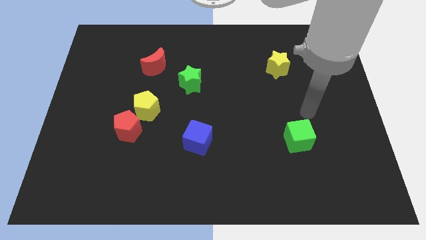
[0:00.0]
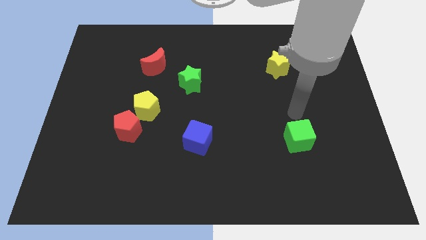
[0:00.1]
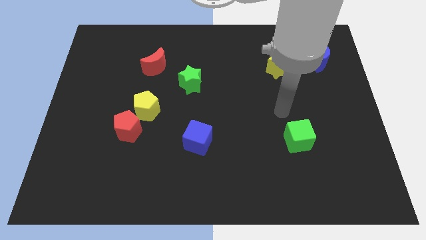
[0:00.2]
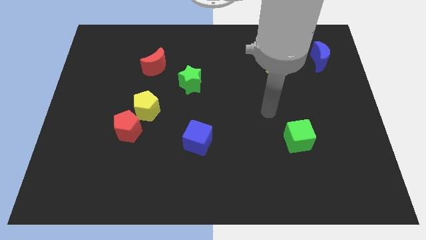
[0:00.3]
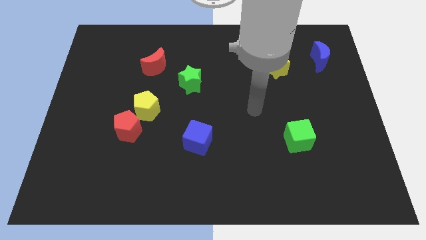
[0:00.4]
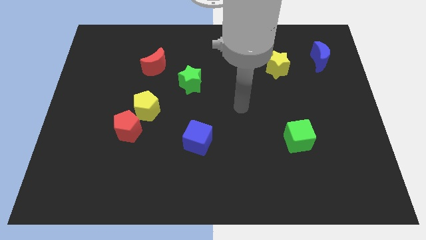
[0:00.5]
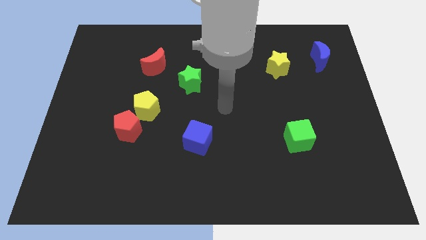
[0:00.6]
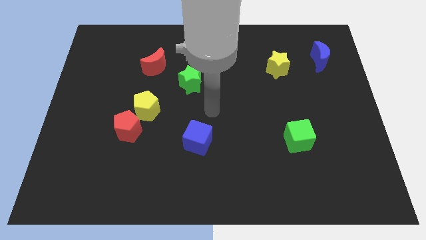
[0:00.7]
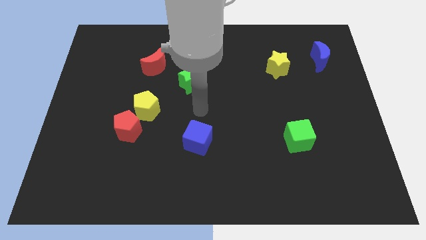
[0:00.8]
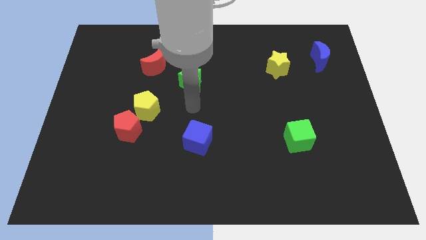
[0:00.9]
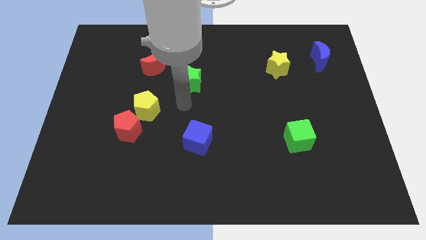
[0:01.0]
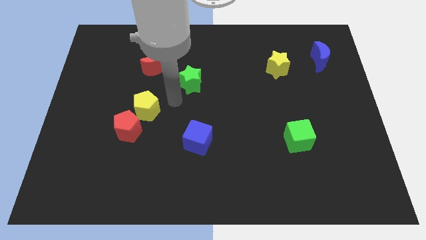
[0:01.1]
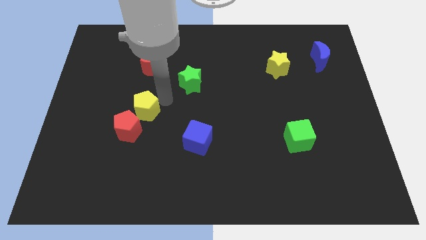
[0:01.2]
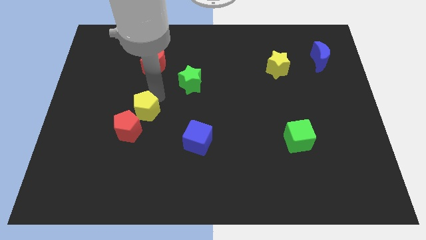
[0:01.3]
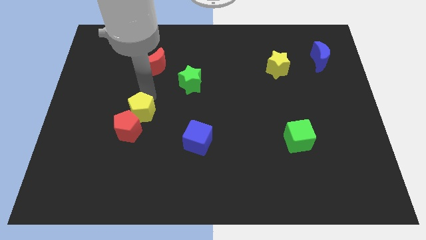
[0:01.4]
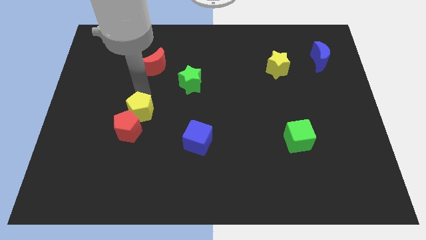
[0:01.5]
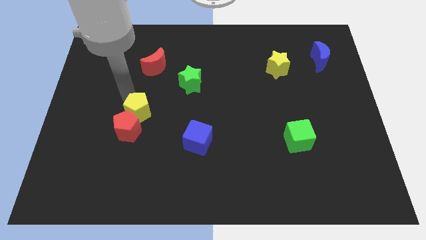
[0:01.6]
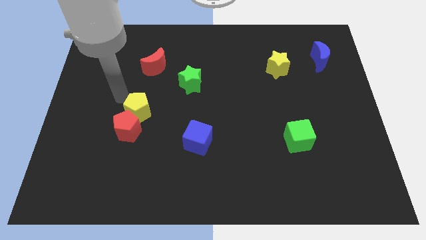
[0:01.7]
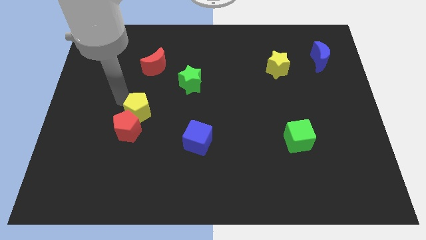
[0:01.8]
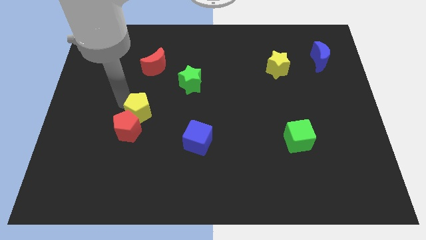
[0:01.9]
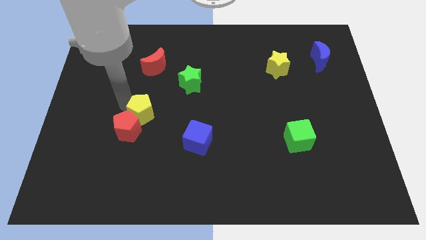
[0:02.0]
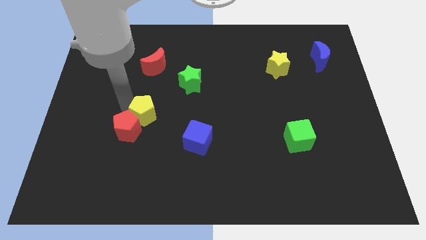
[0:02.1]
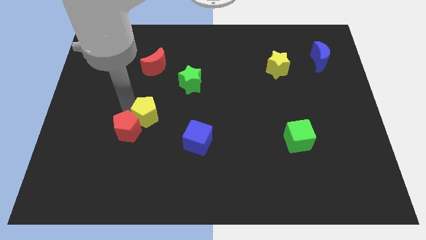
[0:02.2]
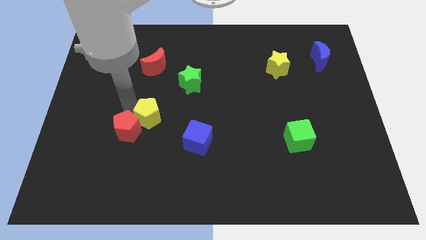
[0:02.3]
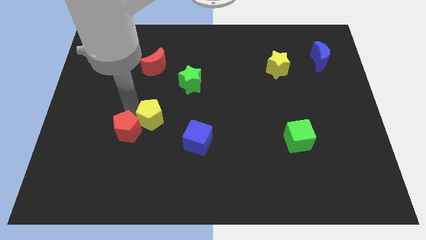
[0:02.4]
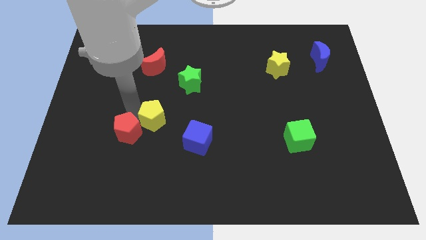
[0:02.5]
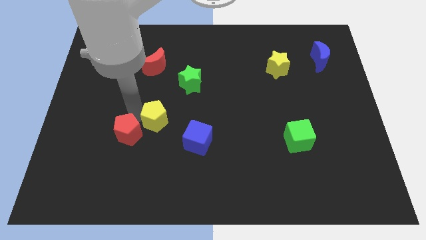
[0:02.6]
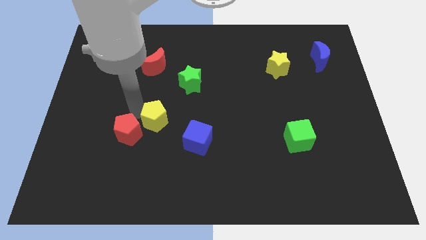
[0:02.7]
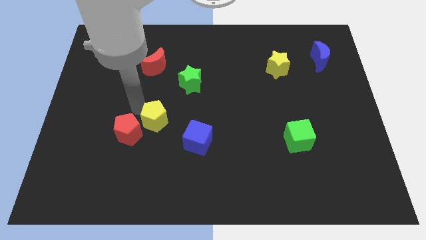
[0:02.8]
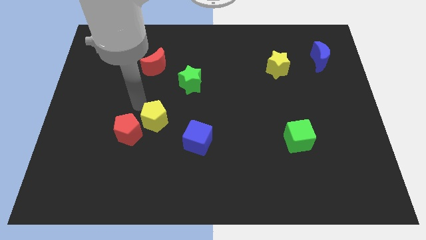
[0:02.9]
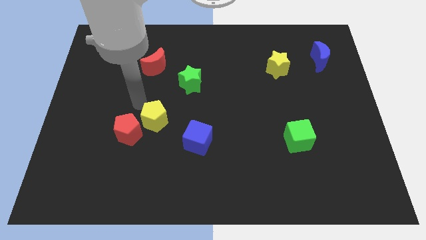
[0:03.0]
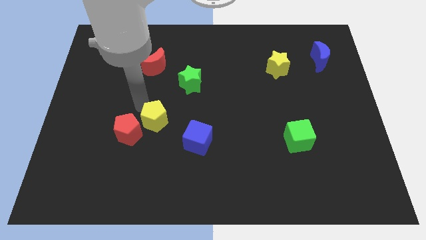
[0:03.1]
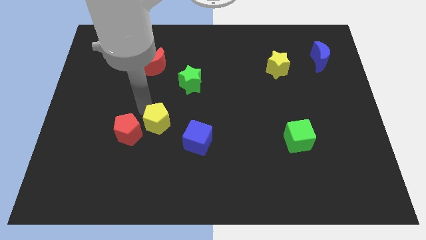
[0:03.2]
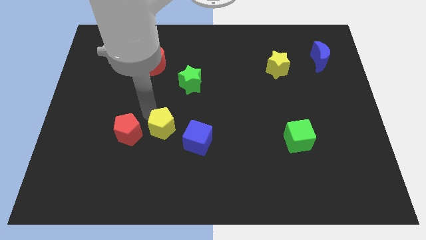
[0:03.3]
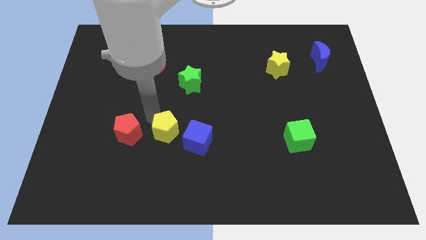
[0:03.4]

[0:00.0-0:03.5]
move the yellow pentagon downwards and to the right a little bit

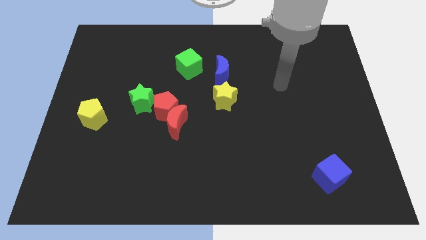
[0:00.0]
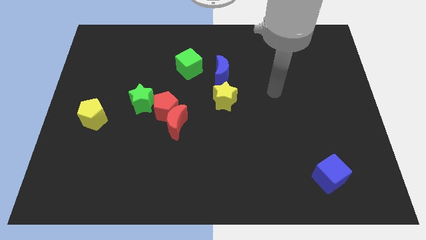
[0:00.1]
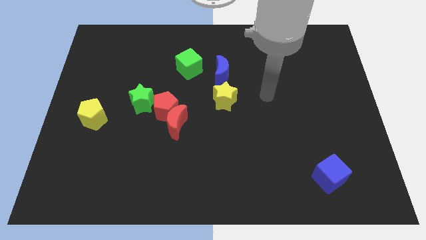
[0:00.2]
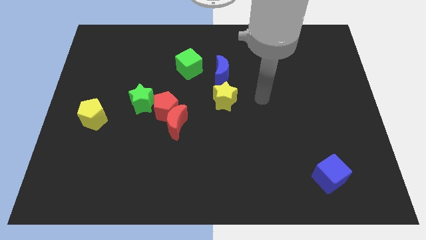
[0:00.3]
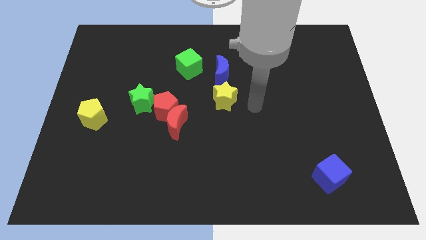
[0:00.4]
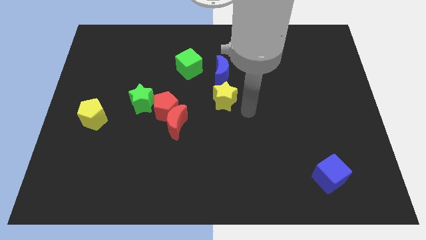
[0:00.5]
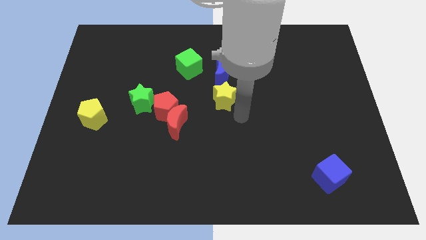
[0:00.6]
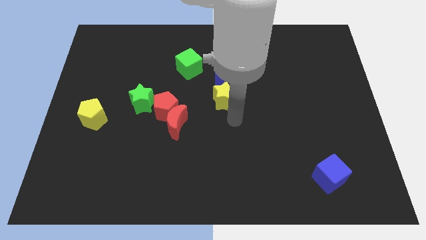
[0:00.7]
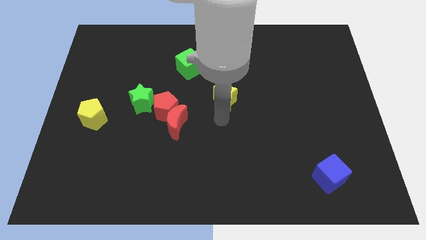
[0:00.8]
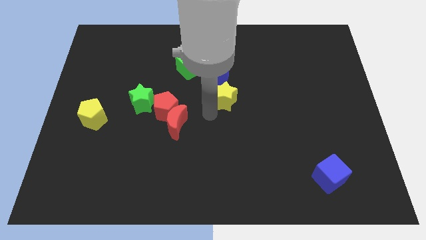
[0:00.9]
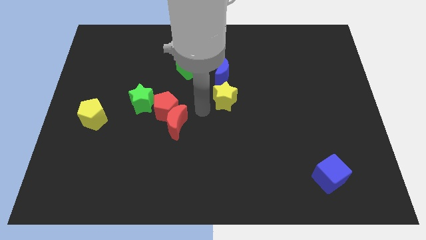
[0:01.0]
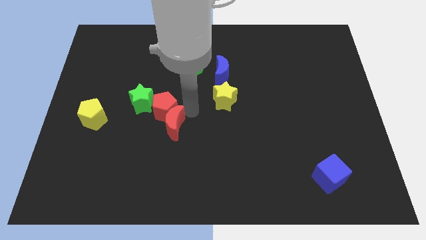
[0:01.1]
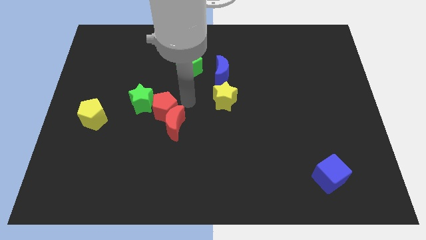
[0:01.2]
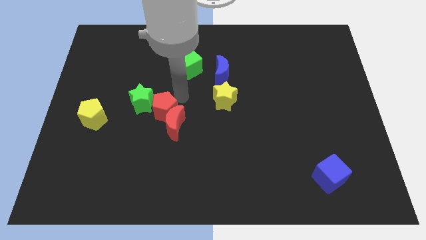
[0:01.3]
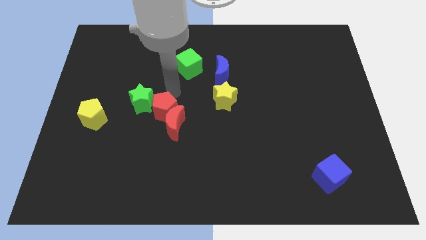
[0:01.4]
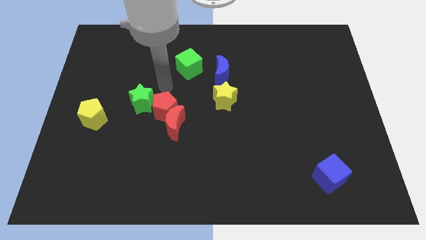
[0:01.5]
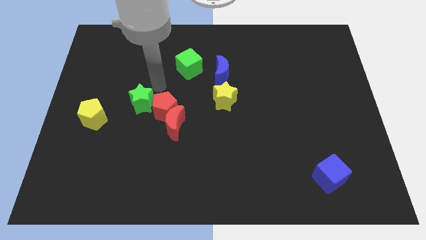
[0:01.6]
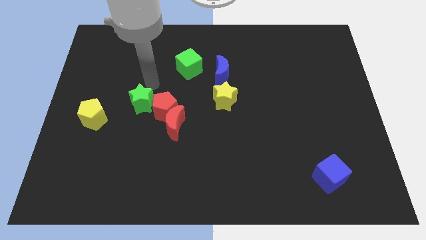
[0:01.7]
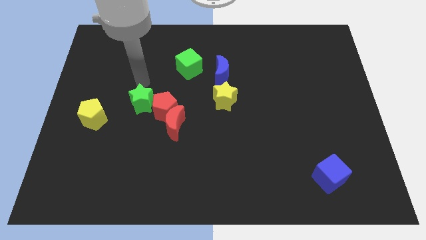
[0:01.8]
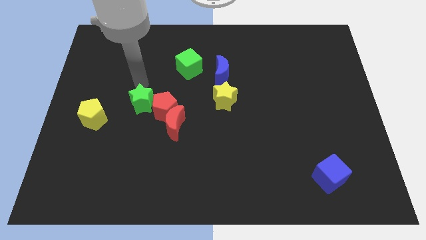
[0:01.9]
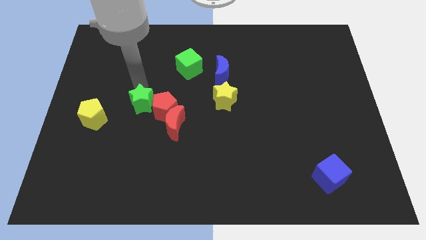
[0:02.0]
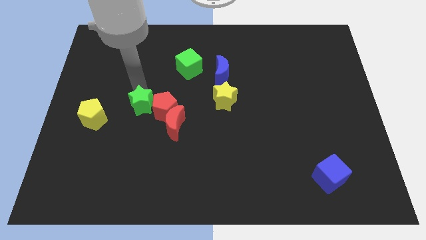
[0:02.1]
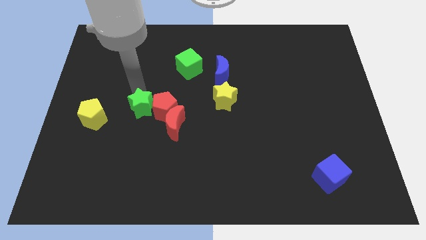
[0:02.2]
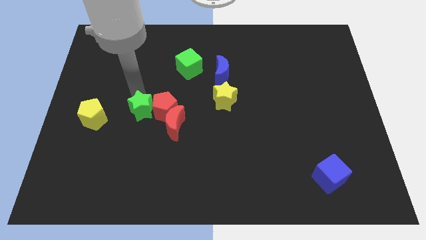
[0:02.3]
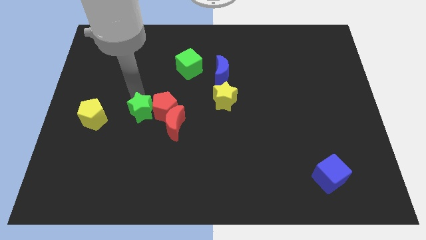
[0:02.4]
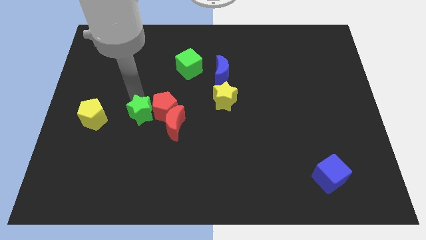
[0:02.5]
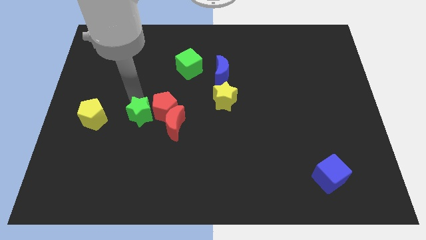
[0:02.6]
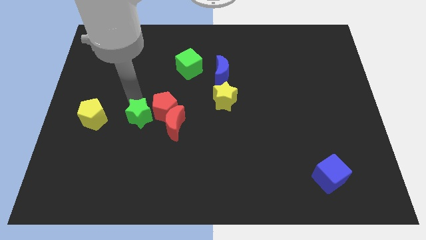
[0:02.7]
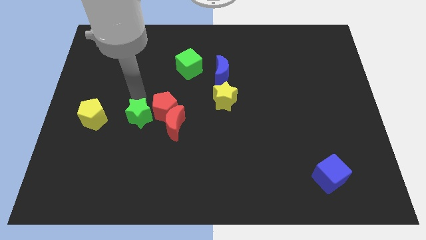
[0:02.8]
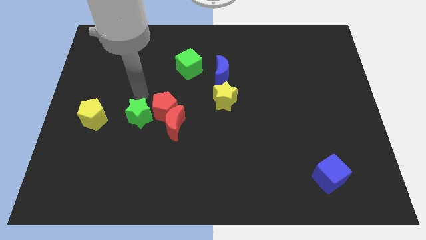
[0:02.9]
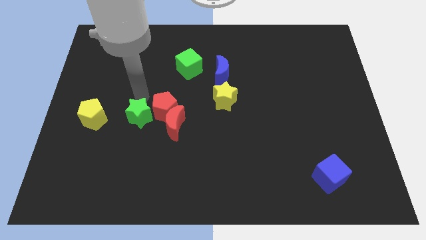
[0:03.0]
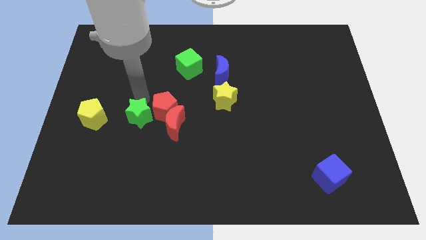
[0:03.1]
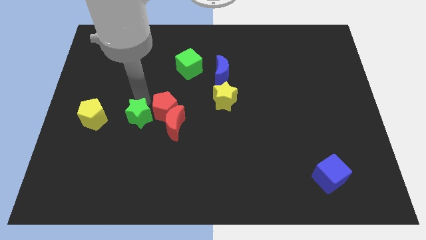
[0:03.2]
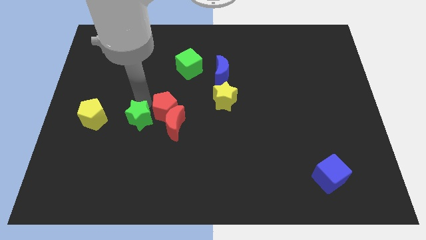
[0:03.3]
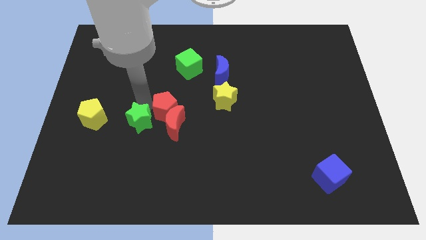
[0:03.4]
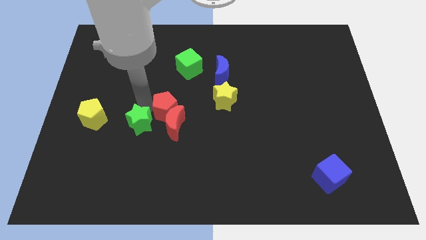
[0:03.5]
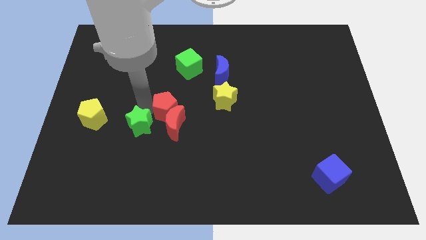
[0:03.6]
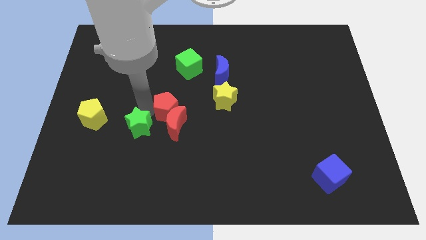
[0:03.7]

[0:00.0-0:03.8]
slightly slide the green star down

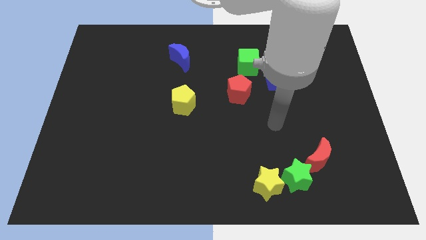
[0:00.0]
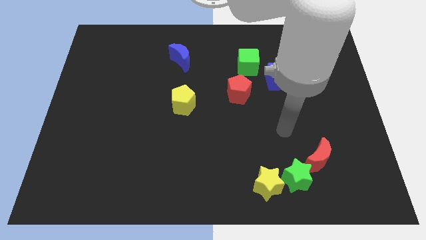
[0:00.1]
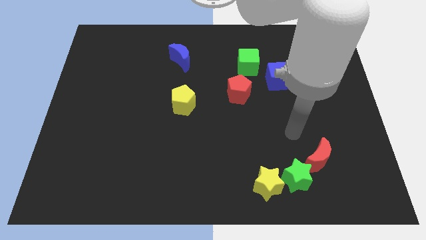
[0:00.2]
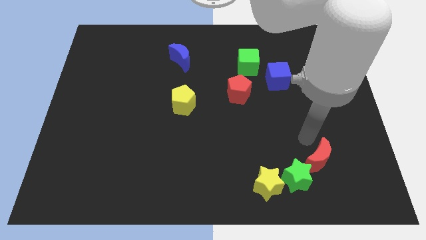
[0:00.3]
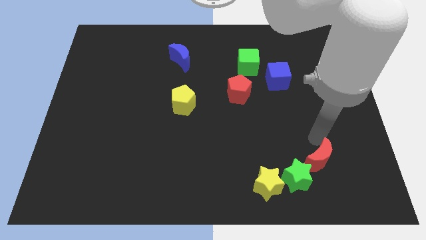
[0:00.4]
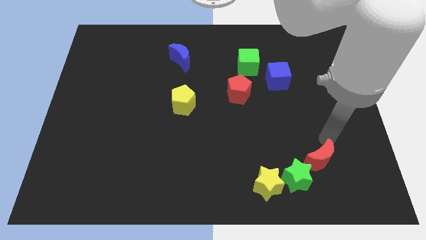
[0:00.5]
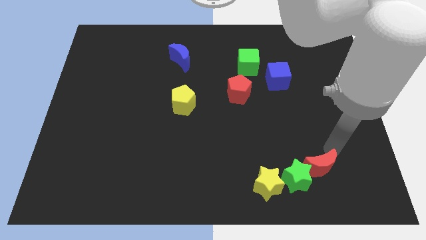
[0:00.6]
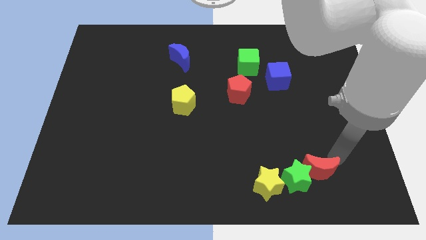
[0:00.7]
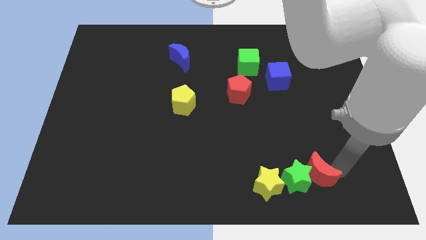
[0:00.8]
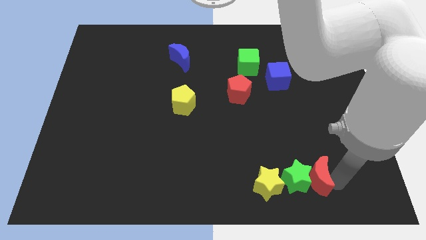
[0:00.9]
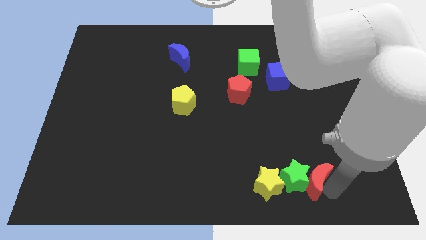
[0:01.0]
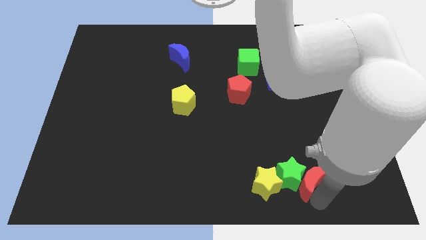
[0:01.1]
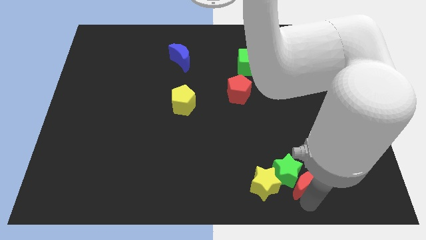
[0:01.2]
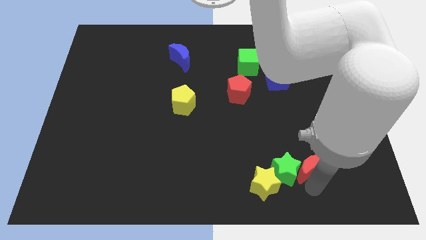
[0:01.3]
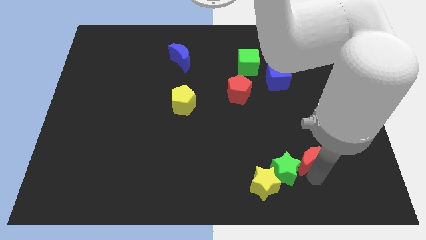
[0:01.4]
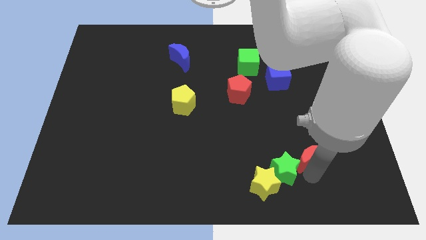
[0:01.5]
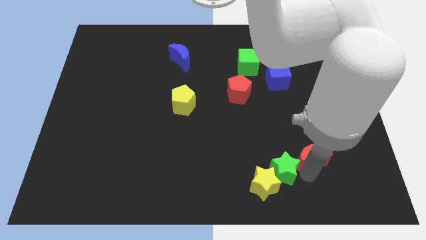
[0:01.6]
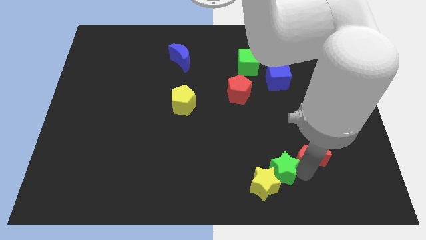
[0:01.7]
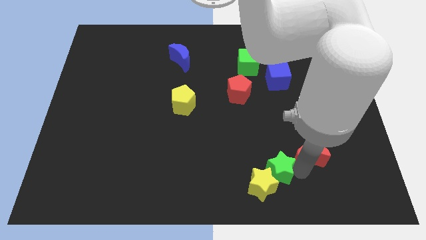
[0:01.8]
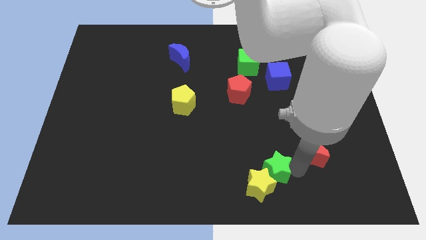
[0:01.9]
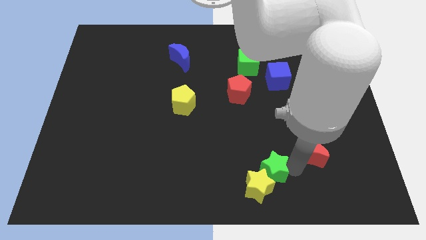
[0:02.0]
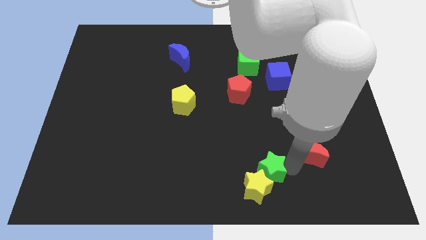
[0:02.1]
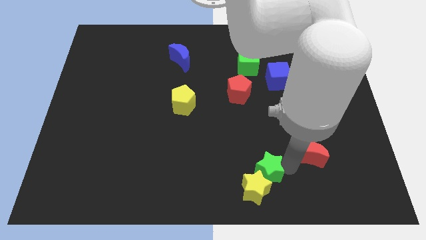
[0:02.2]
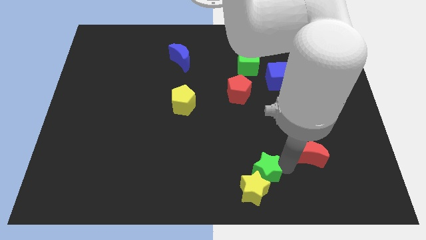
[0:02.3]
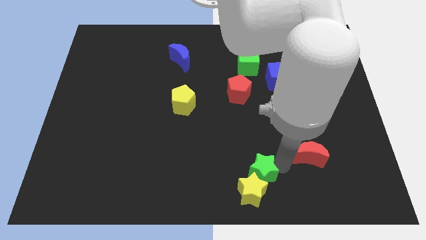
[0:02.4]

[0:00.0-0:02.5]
slide the green star left a little
